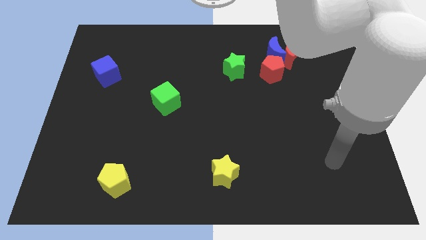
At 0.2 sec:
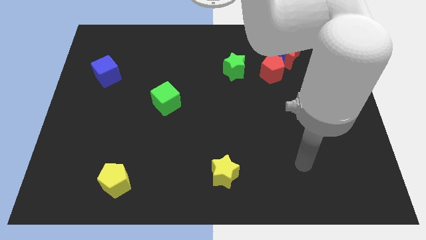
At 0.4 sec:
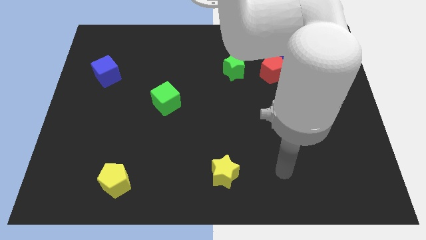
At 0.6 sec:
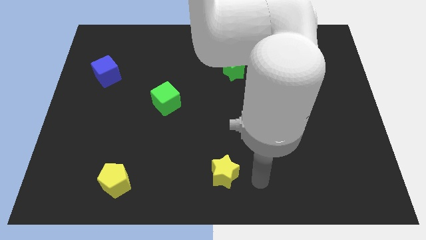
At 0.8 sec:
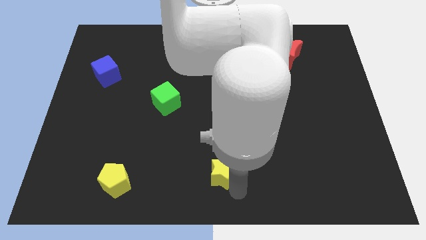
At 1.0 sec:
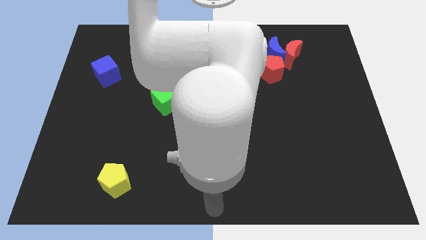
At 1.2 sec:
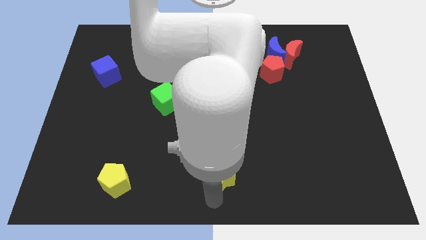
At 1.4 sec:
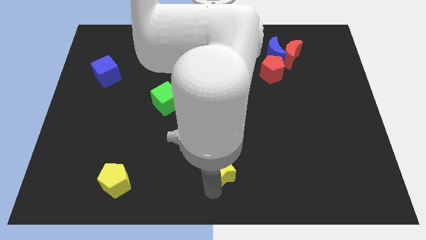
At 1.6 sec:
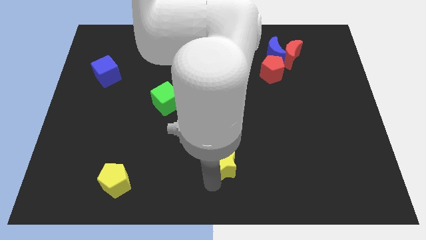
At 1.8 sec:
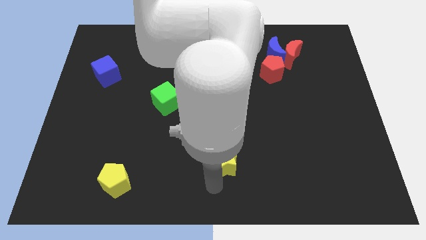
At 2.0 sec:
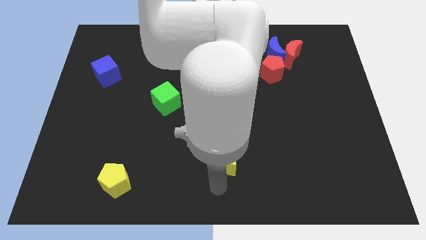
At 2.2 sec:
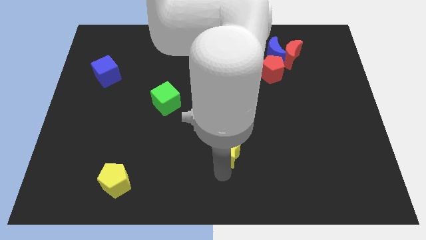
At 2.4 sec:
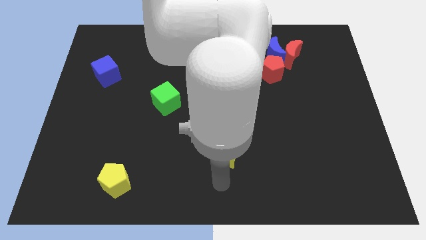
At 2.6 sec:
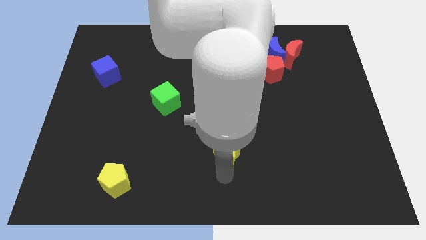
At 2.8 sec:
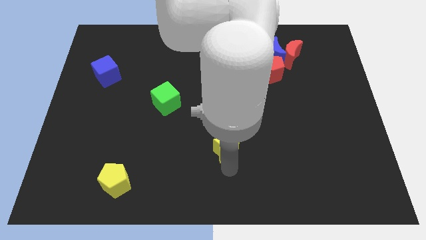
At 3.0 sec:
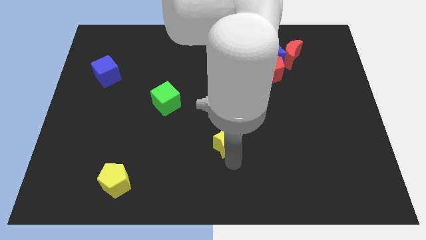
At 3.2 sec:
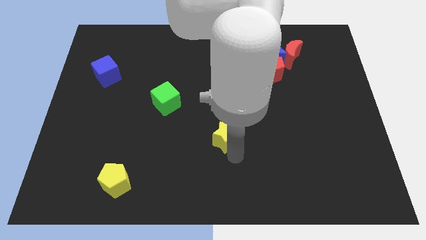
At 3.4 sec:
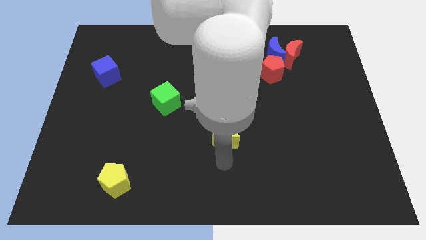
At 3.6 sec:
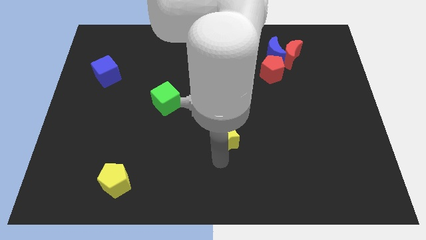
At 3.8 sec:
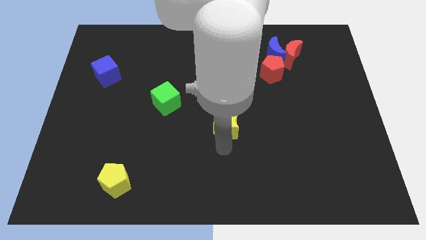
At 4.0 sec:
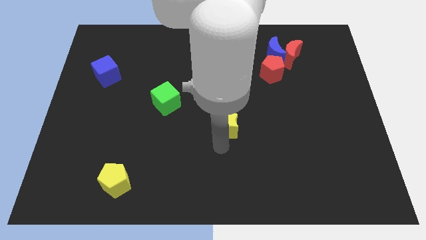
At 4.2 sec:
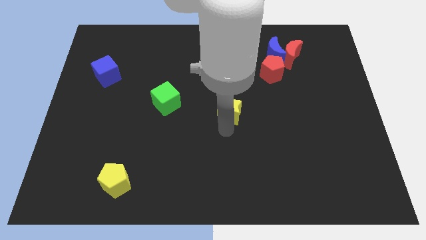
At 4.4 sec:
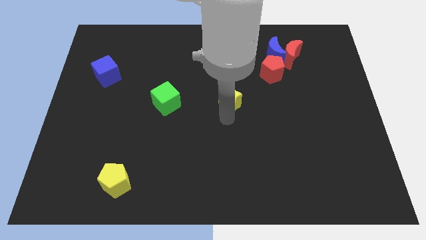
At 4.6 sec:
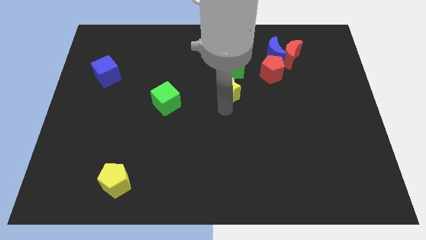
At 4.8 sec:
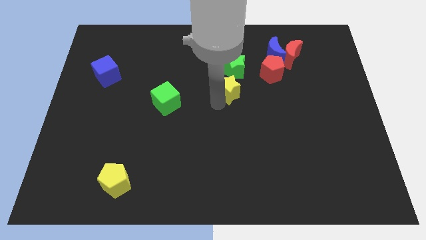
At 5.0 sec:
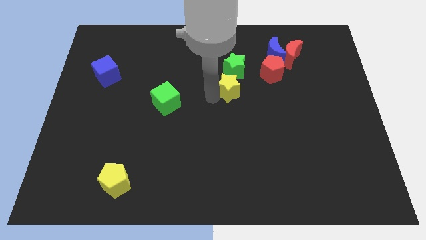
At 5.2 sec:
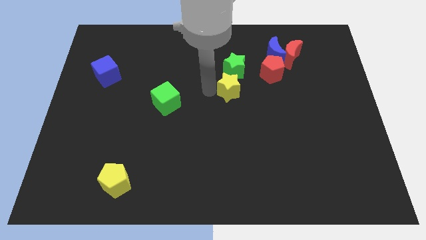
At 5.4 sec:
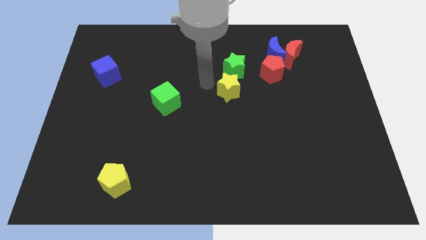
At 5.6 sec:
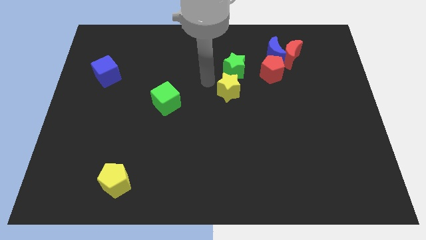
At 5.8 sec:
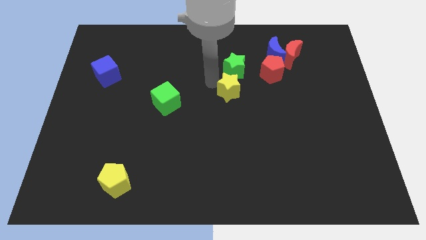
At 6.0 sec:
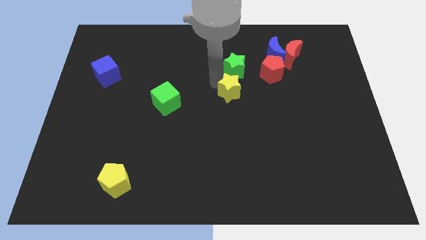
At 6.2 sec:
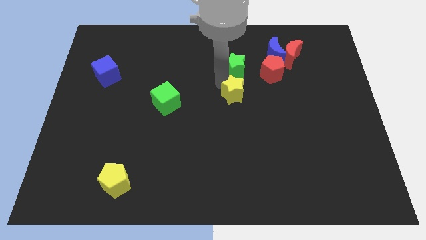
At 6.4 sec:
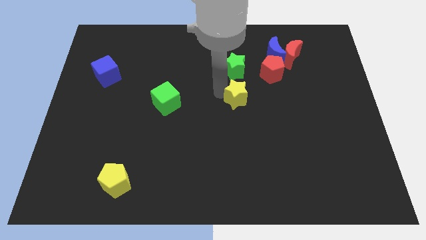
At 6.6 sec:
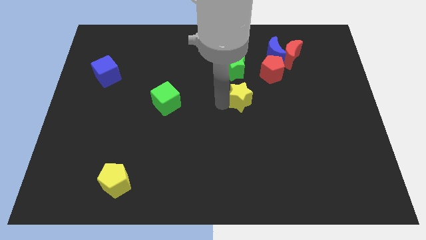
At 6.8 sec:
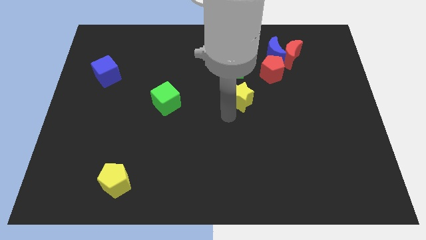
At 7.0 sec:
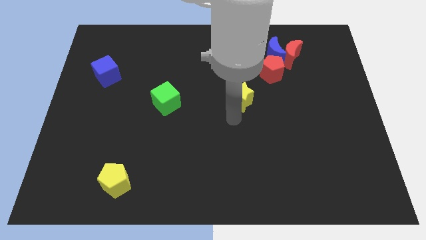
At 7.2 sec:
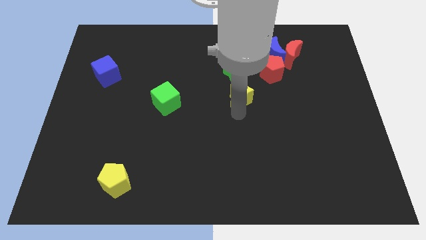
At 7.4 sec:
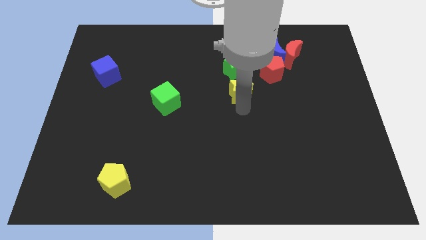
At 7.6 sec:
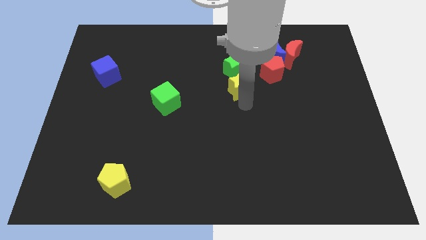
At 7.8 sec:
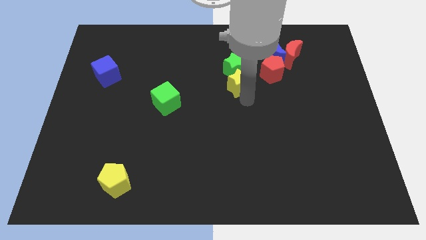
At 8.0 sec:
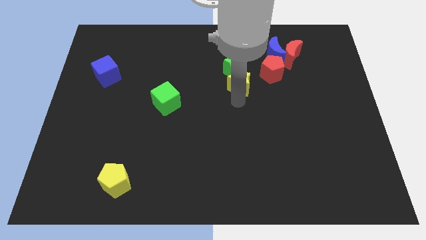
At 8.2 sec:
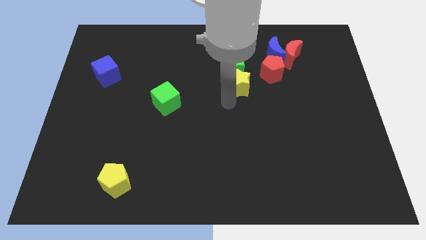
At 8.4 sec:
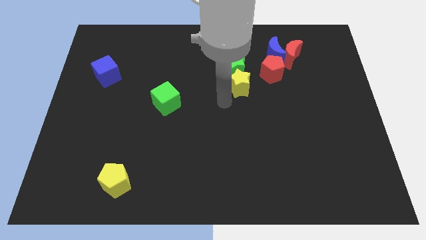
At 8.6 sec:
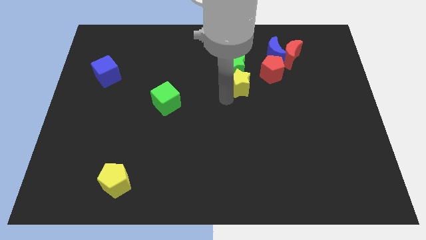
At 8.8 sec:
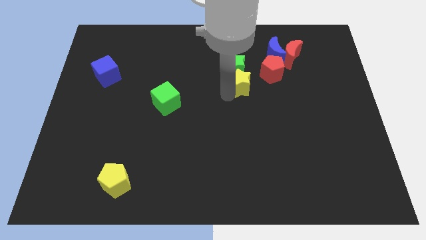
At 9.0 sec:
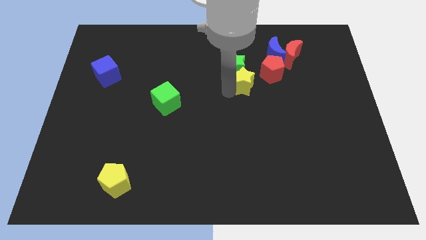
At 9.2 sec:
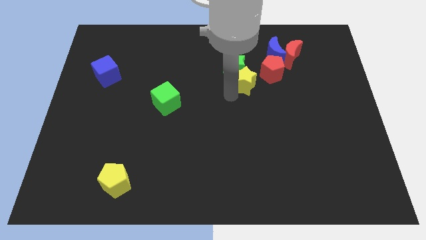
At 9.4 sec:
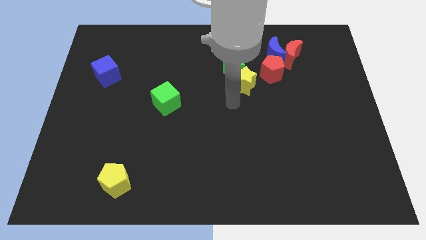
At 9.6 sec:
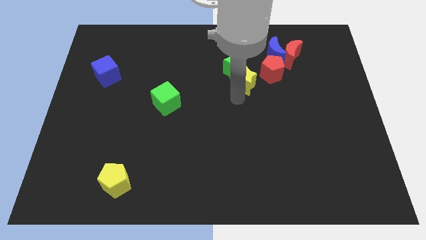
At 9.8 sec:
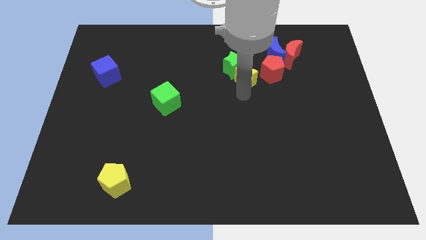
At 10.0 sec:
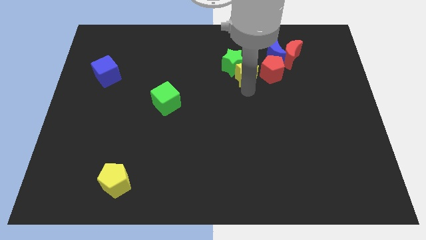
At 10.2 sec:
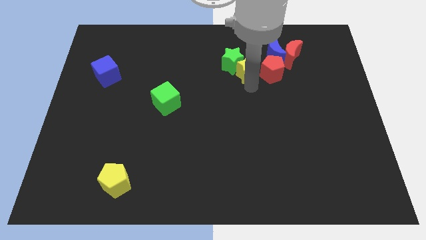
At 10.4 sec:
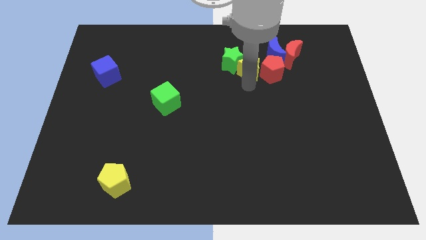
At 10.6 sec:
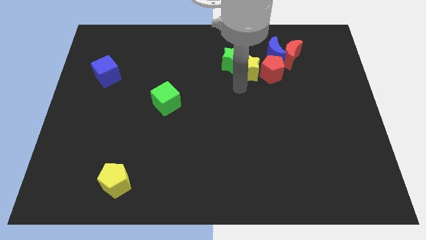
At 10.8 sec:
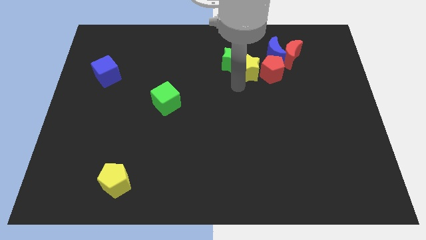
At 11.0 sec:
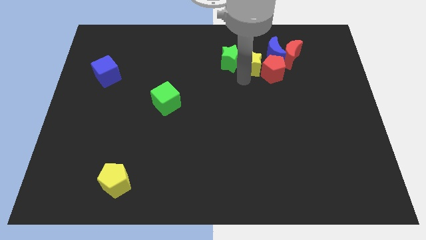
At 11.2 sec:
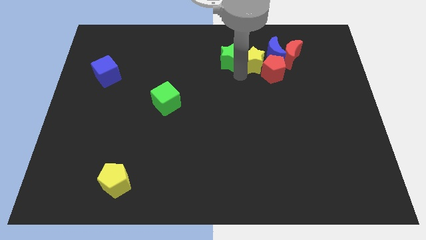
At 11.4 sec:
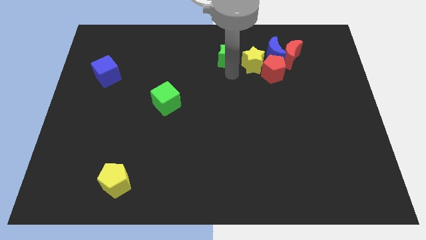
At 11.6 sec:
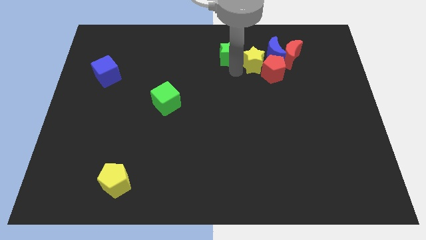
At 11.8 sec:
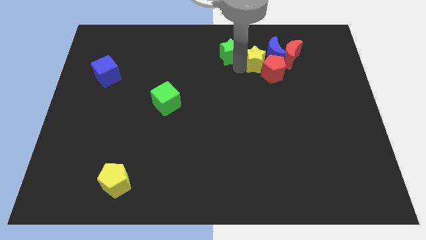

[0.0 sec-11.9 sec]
put the yellow star to the blue moon

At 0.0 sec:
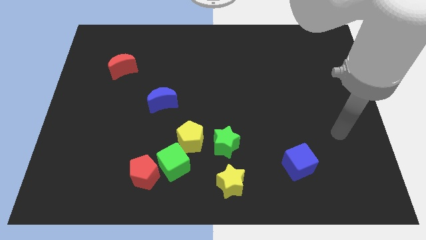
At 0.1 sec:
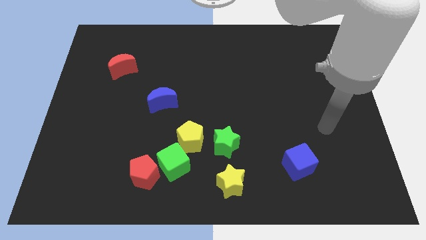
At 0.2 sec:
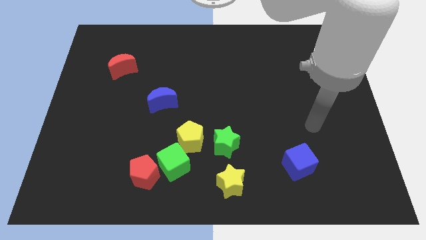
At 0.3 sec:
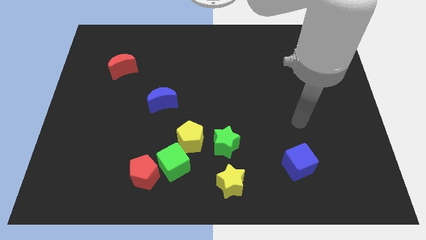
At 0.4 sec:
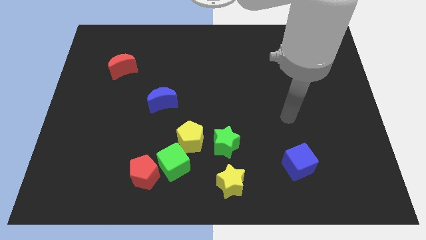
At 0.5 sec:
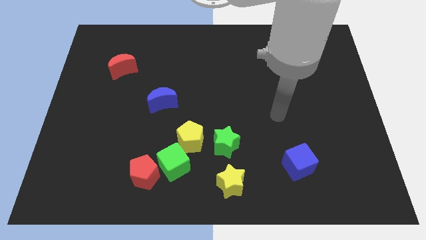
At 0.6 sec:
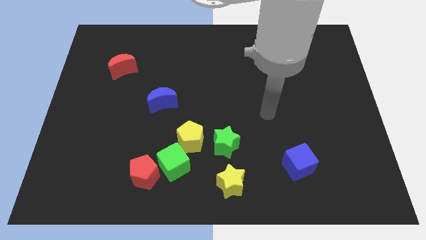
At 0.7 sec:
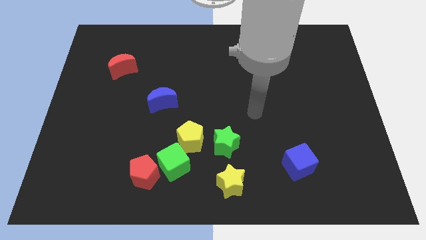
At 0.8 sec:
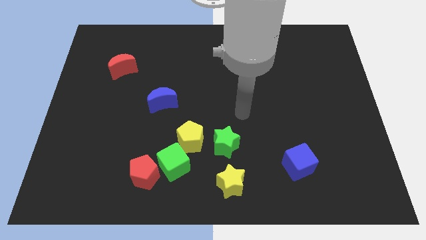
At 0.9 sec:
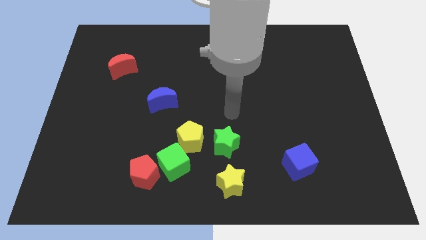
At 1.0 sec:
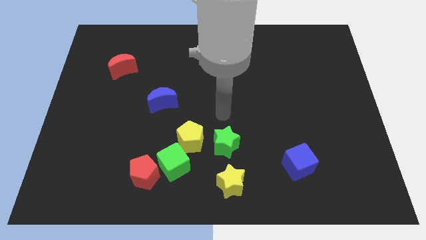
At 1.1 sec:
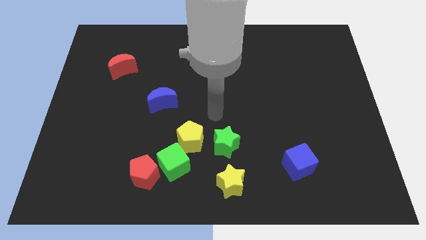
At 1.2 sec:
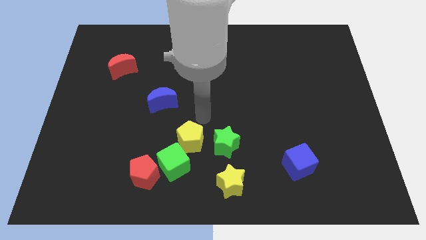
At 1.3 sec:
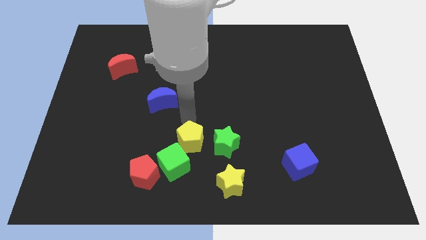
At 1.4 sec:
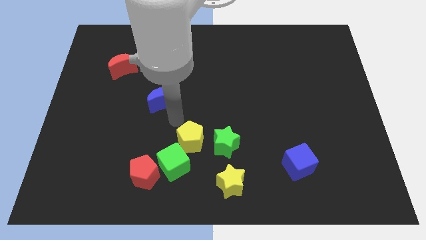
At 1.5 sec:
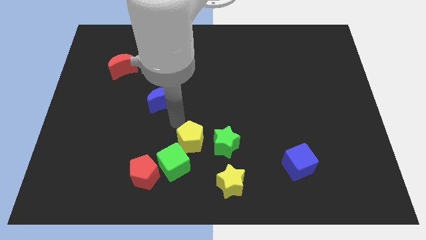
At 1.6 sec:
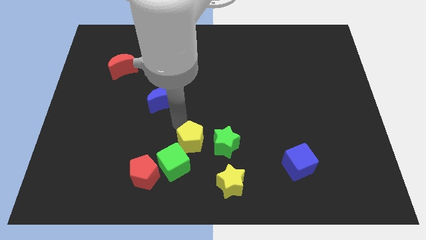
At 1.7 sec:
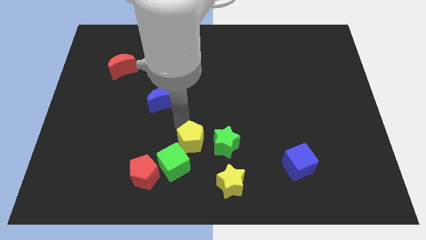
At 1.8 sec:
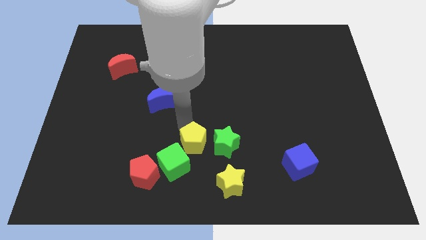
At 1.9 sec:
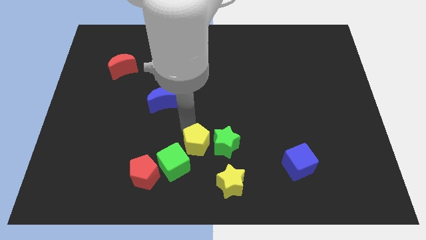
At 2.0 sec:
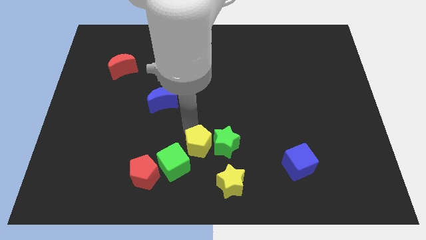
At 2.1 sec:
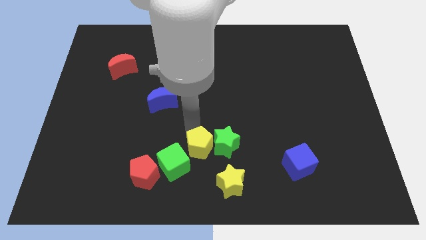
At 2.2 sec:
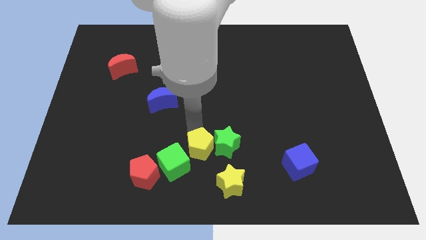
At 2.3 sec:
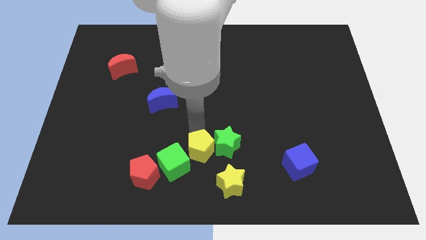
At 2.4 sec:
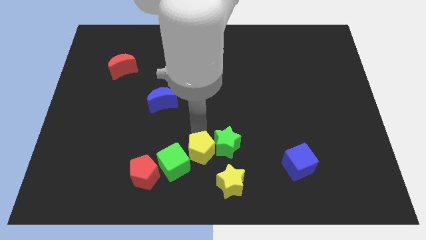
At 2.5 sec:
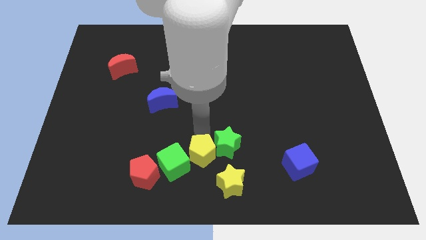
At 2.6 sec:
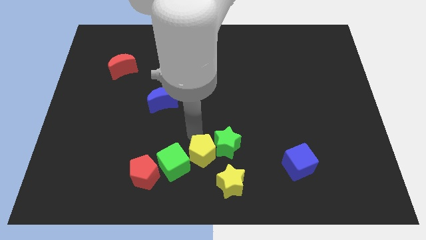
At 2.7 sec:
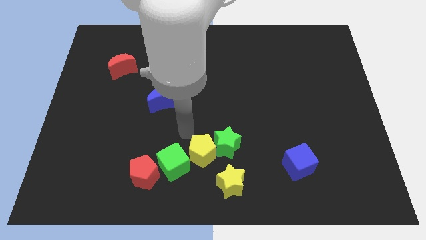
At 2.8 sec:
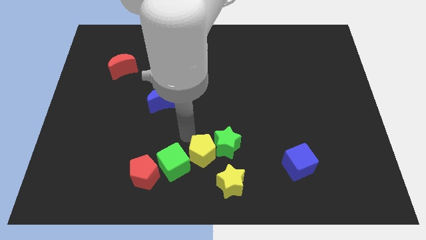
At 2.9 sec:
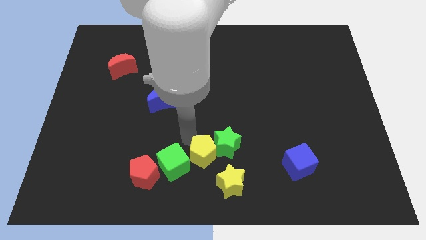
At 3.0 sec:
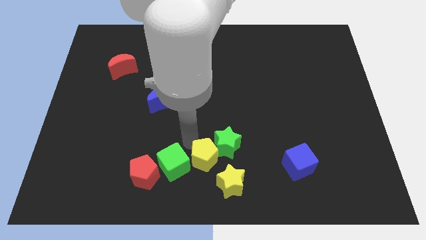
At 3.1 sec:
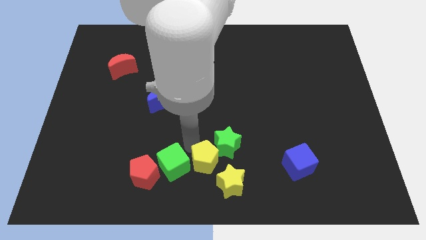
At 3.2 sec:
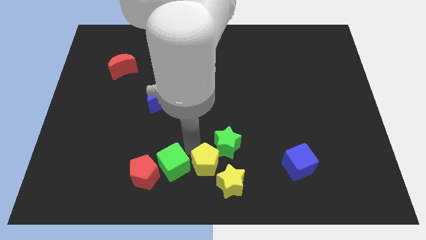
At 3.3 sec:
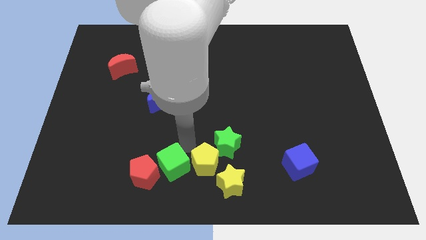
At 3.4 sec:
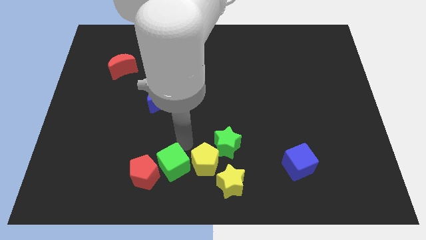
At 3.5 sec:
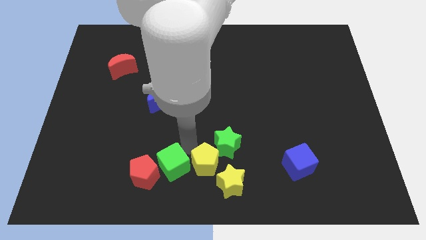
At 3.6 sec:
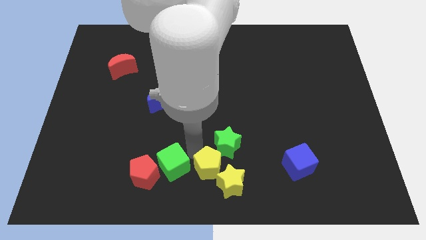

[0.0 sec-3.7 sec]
put the yellow pentagon close to the yellow star
